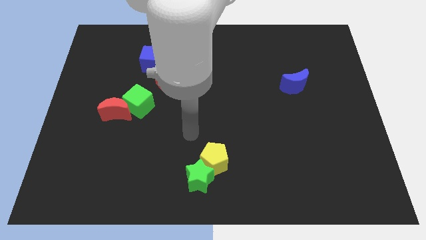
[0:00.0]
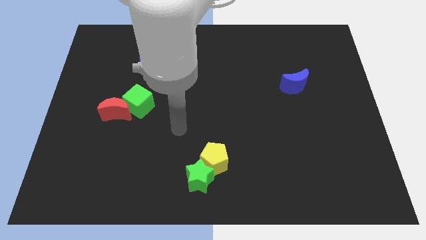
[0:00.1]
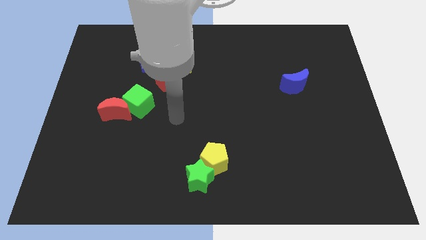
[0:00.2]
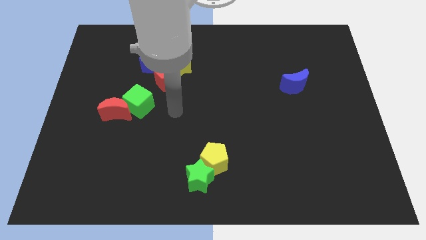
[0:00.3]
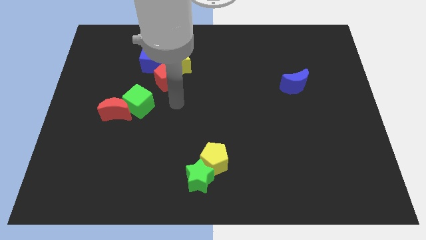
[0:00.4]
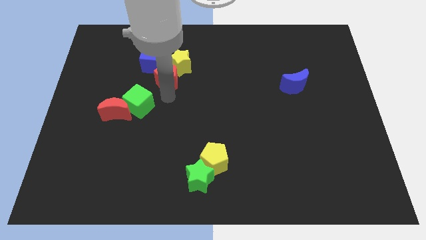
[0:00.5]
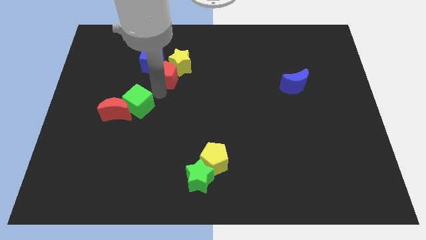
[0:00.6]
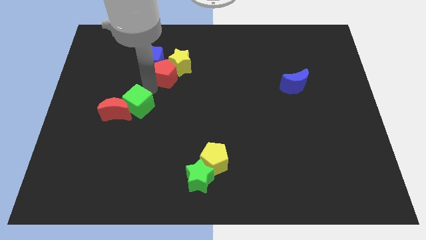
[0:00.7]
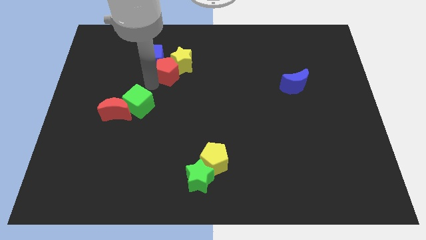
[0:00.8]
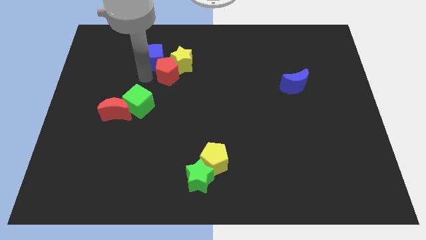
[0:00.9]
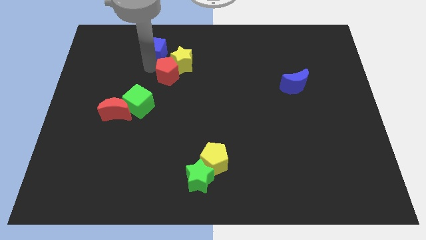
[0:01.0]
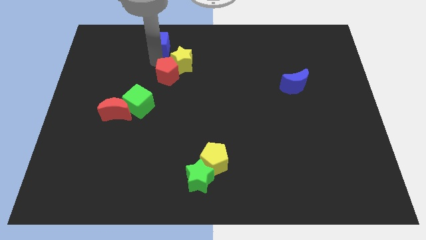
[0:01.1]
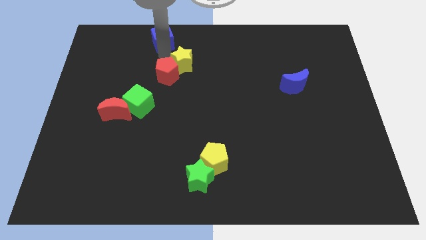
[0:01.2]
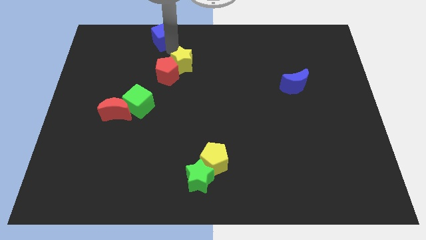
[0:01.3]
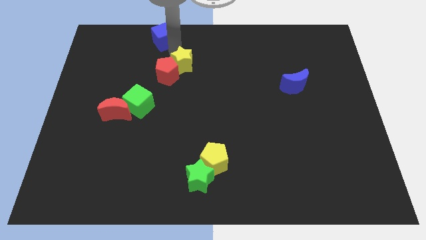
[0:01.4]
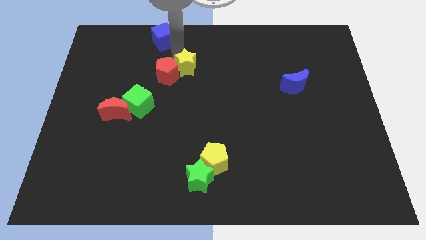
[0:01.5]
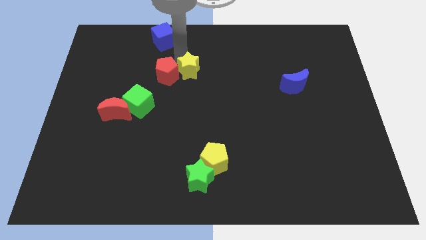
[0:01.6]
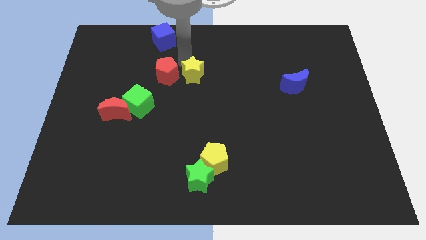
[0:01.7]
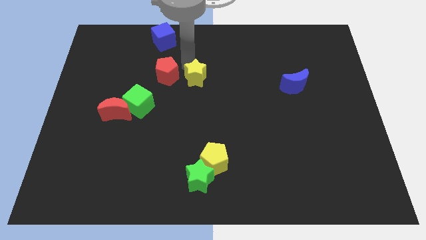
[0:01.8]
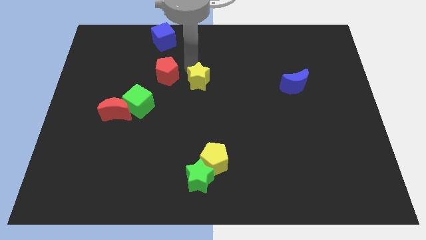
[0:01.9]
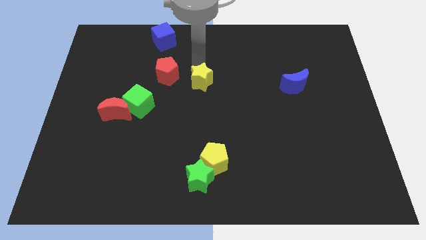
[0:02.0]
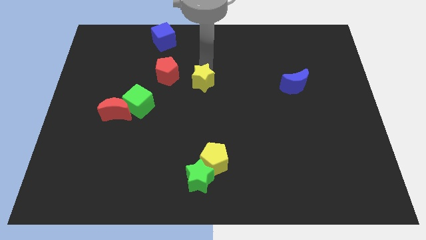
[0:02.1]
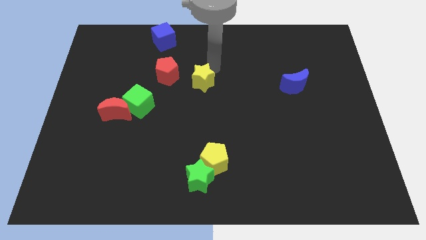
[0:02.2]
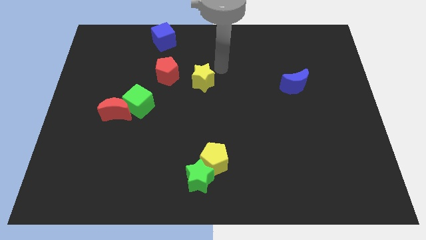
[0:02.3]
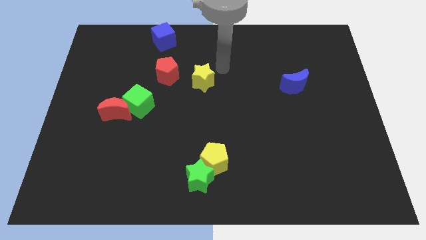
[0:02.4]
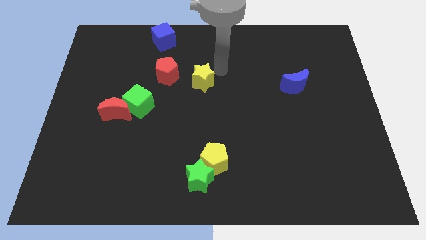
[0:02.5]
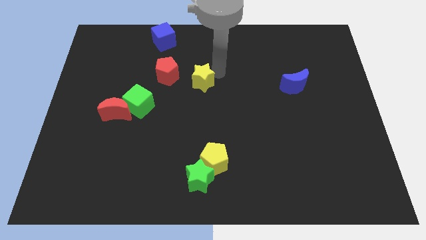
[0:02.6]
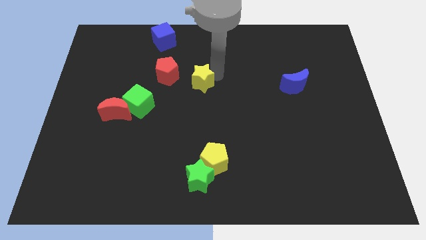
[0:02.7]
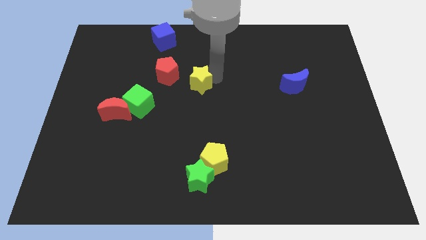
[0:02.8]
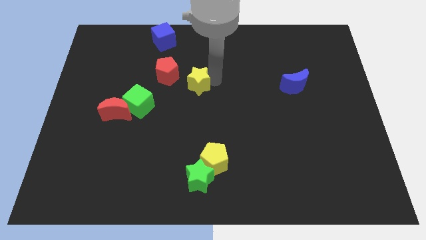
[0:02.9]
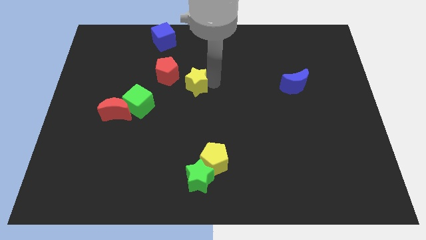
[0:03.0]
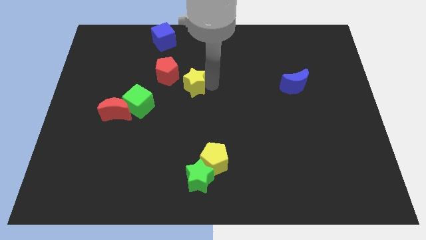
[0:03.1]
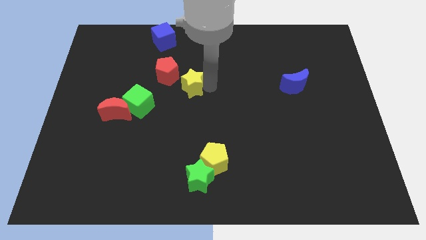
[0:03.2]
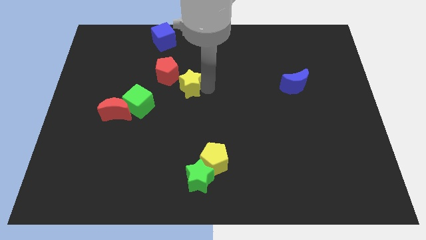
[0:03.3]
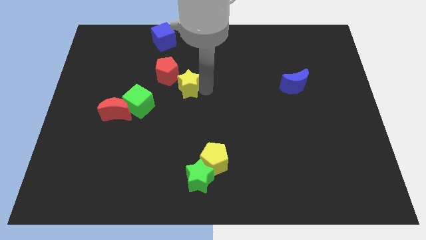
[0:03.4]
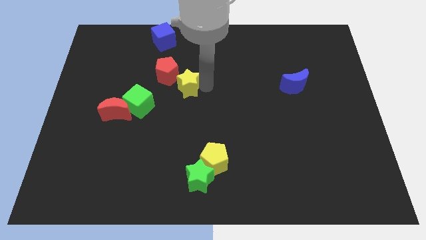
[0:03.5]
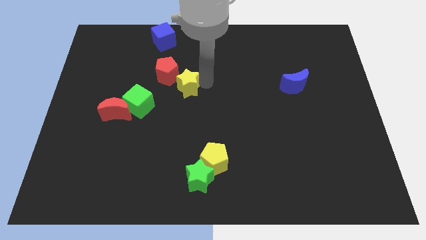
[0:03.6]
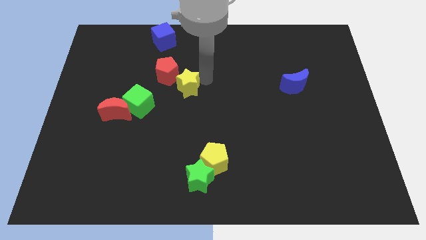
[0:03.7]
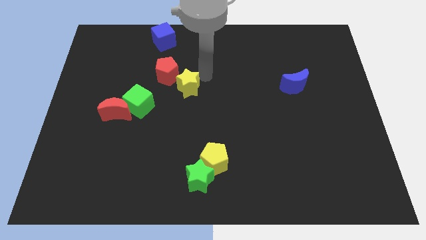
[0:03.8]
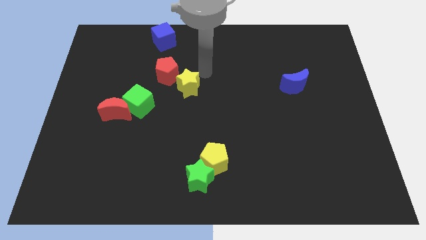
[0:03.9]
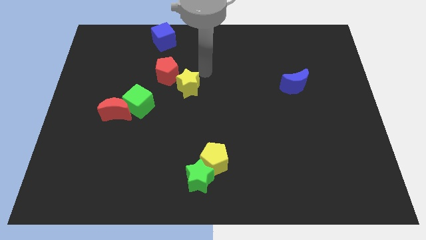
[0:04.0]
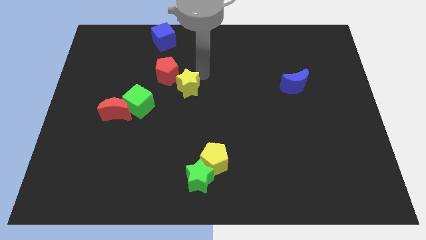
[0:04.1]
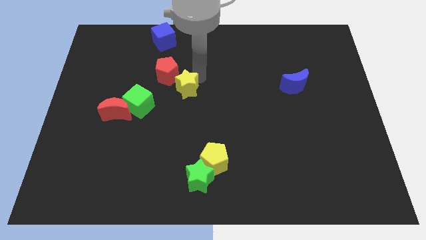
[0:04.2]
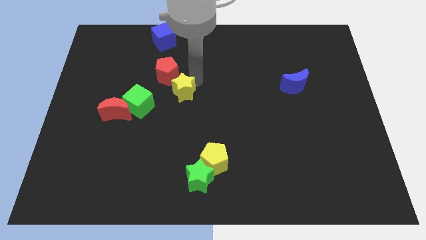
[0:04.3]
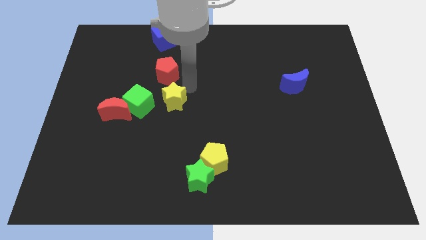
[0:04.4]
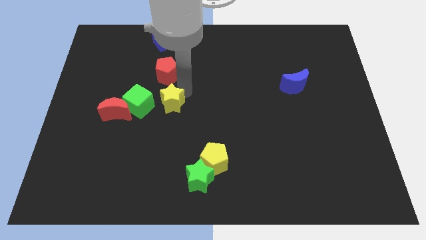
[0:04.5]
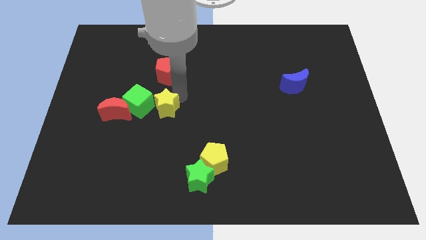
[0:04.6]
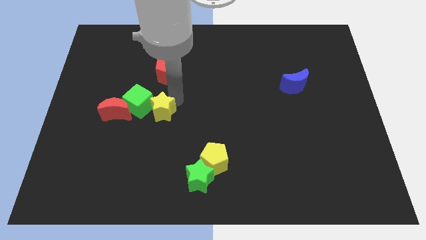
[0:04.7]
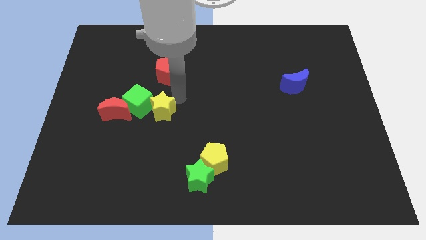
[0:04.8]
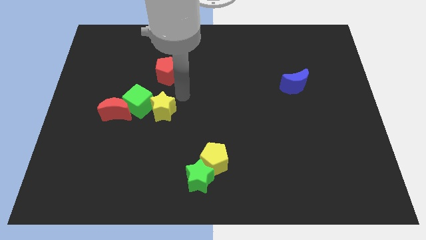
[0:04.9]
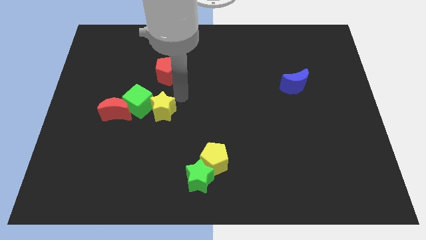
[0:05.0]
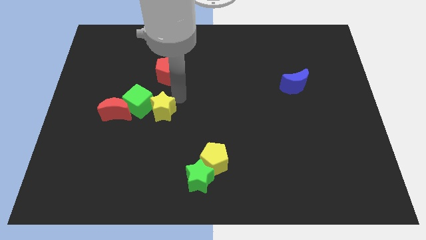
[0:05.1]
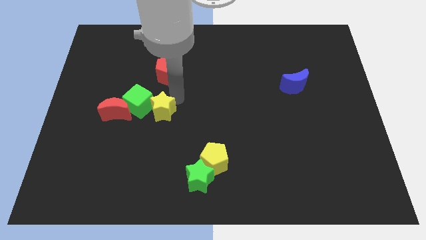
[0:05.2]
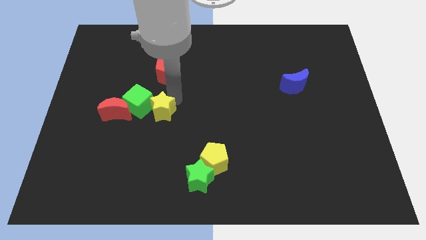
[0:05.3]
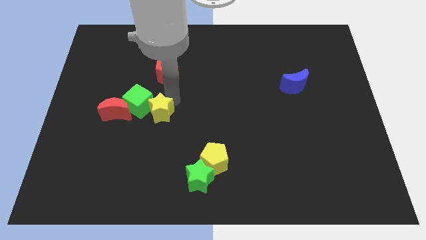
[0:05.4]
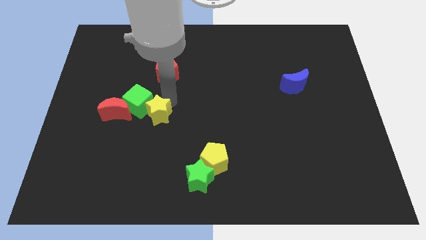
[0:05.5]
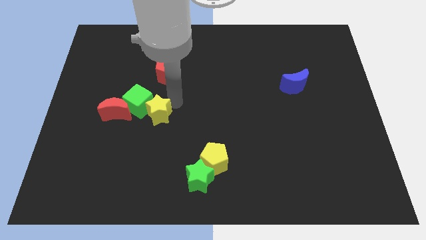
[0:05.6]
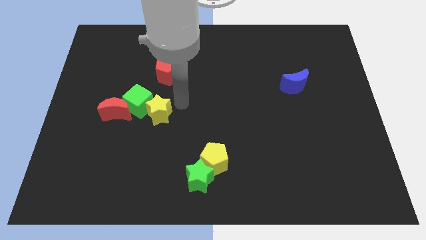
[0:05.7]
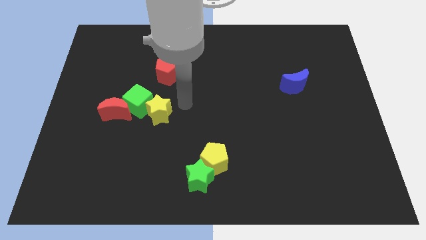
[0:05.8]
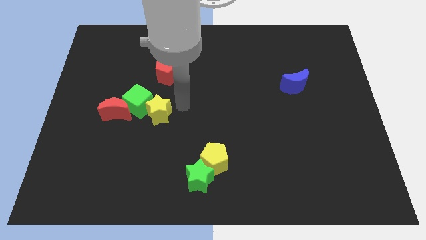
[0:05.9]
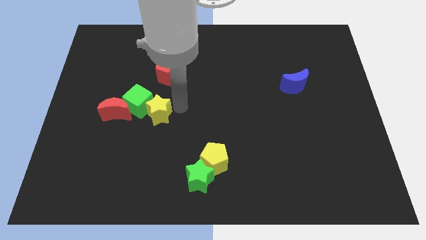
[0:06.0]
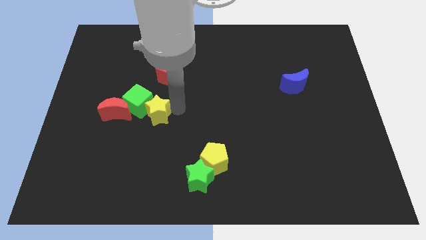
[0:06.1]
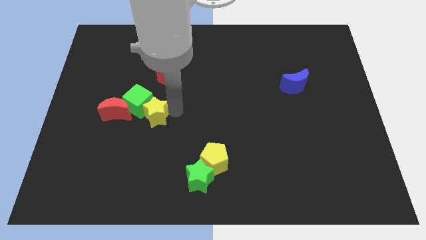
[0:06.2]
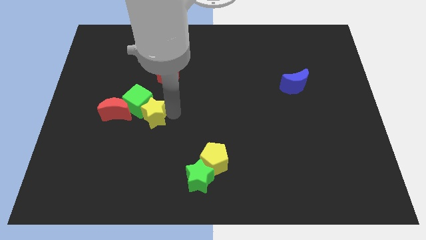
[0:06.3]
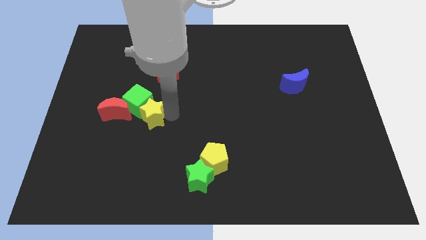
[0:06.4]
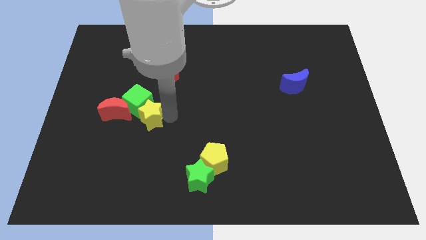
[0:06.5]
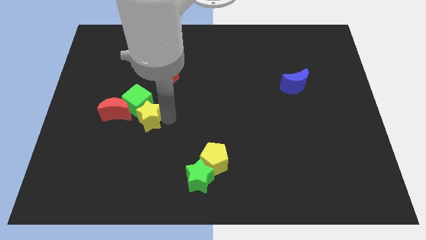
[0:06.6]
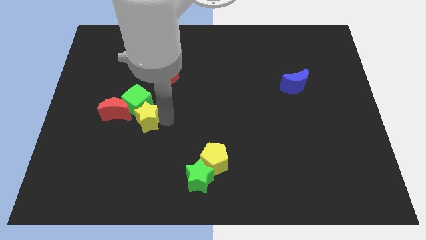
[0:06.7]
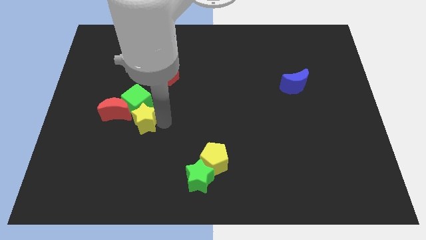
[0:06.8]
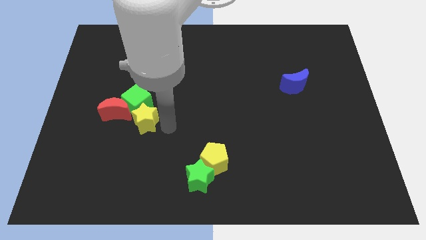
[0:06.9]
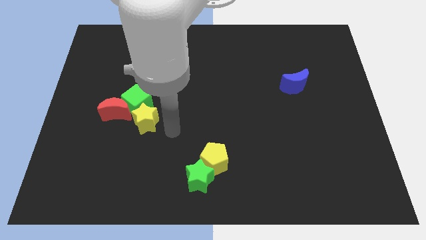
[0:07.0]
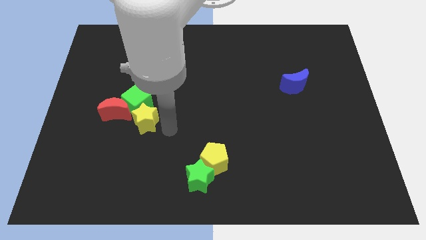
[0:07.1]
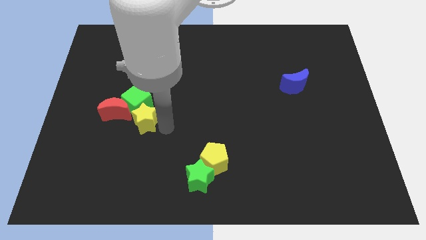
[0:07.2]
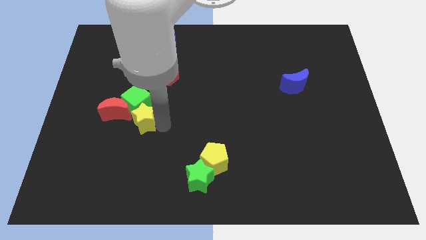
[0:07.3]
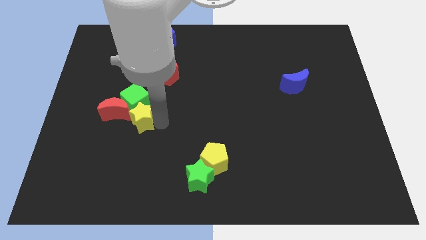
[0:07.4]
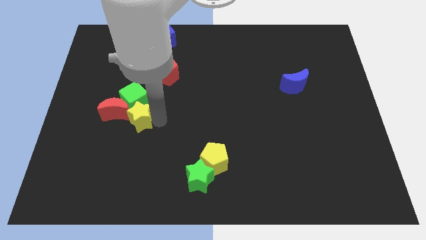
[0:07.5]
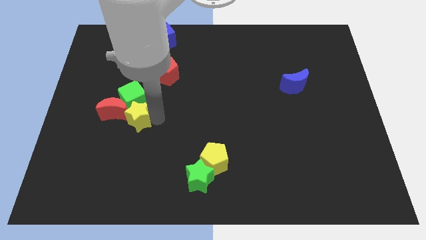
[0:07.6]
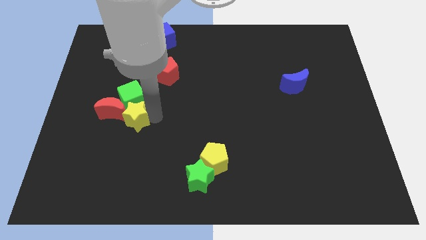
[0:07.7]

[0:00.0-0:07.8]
move the yellow star close to the red moon
